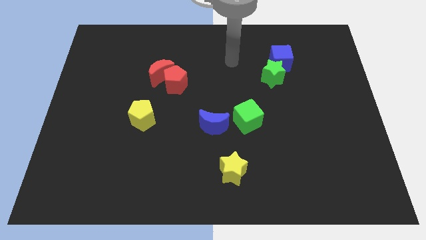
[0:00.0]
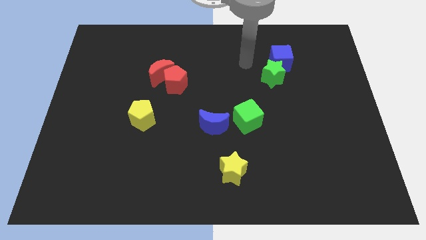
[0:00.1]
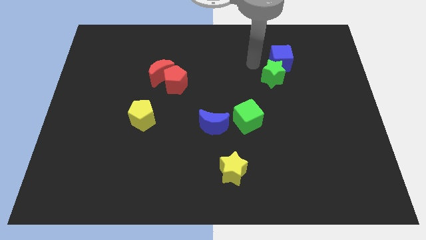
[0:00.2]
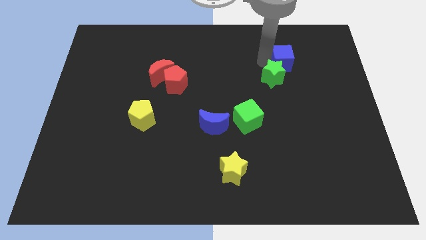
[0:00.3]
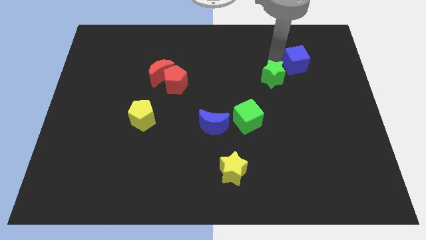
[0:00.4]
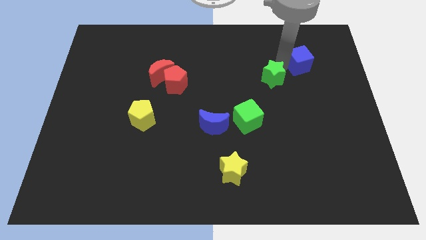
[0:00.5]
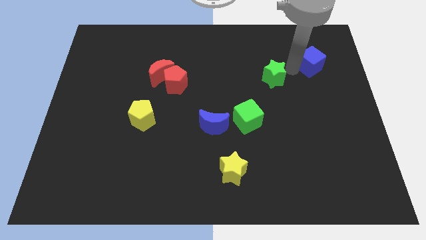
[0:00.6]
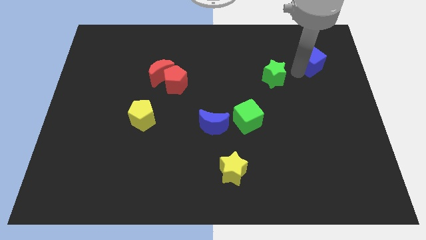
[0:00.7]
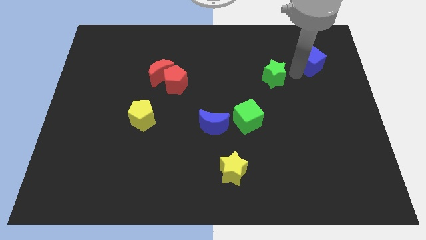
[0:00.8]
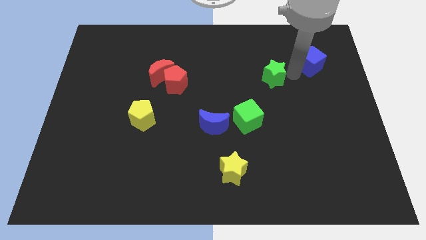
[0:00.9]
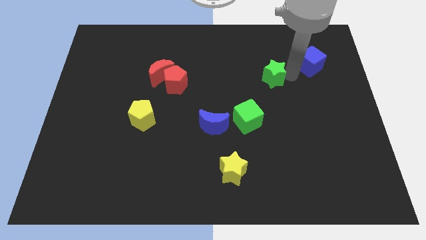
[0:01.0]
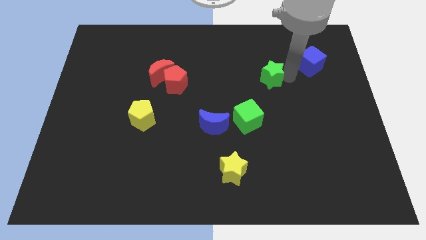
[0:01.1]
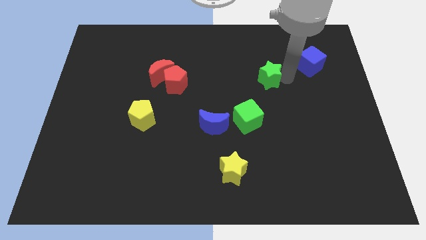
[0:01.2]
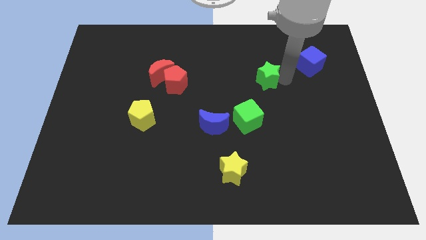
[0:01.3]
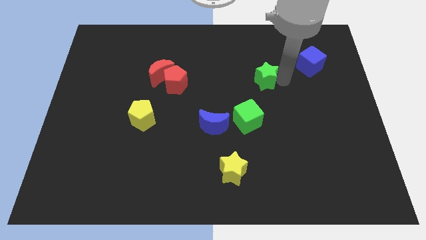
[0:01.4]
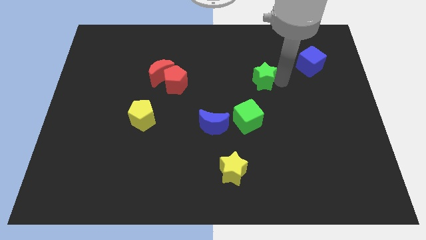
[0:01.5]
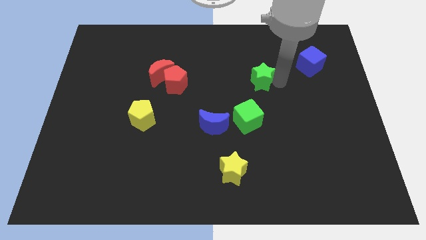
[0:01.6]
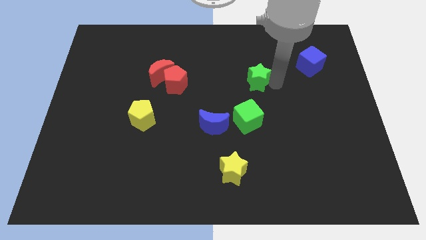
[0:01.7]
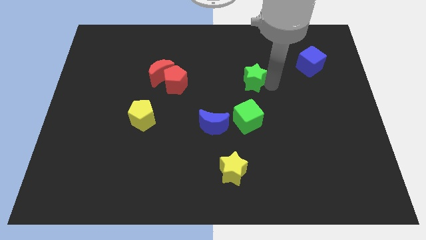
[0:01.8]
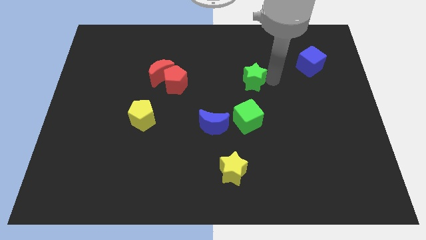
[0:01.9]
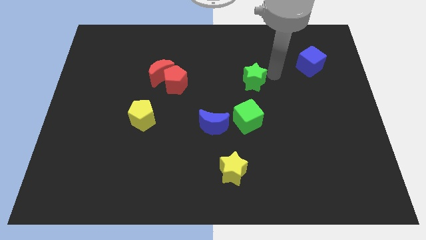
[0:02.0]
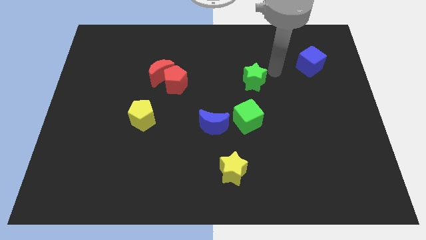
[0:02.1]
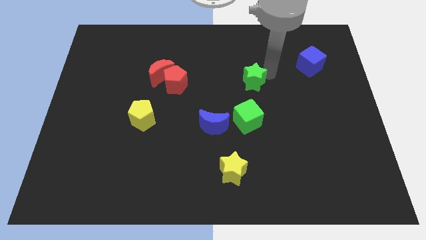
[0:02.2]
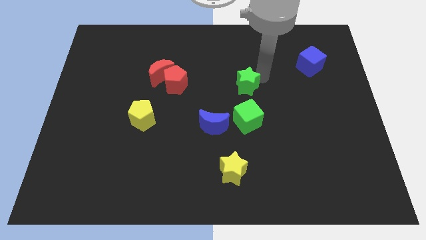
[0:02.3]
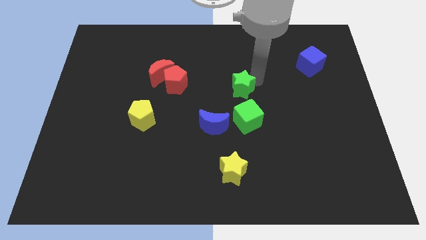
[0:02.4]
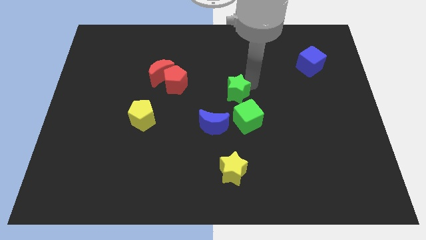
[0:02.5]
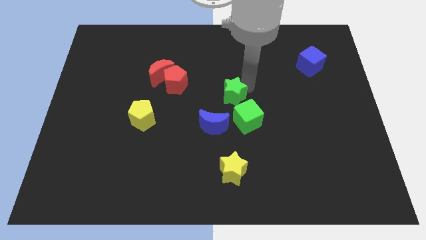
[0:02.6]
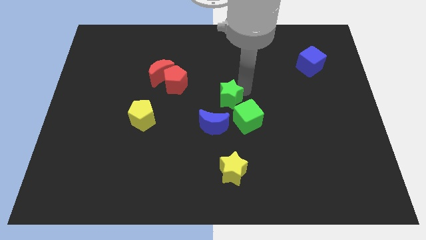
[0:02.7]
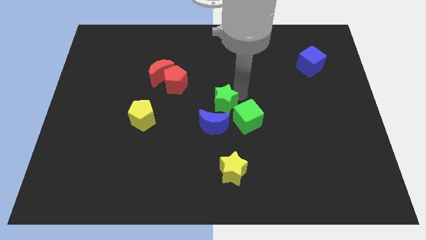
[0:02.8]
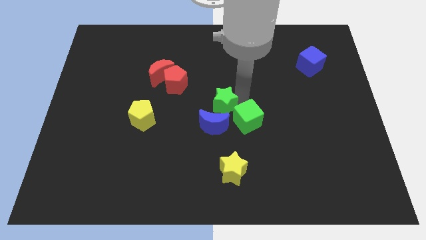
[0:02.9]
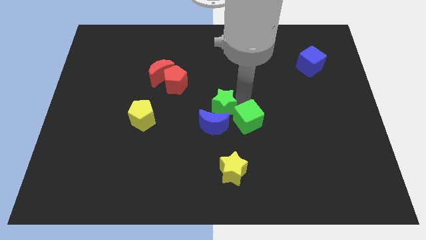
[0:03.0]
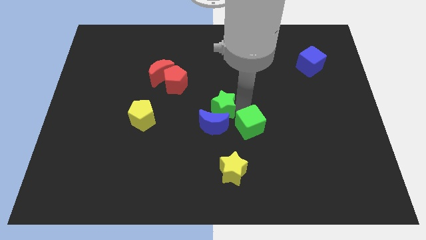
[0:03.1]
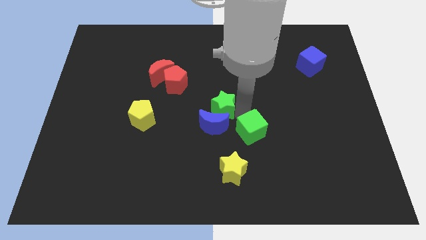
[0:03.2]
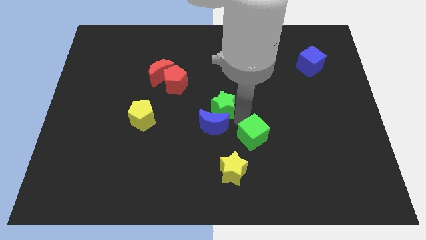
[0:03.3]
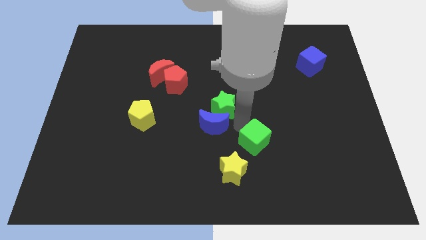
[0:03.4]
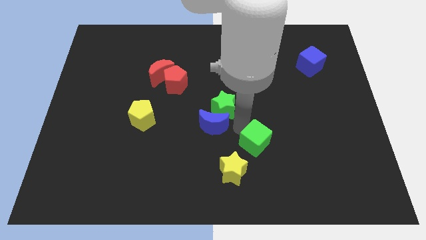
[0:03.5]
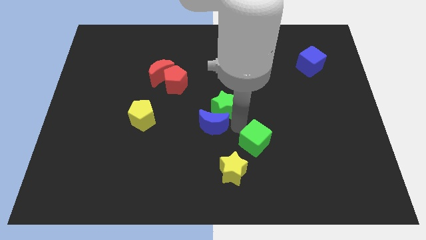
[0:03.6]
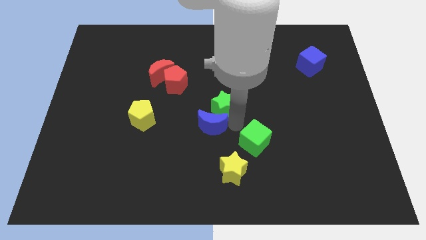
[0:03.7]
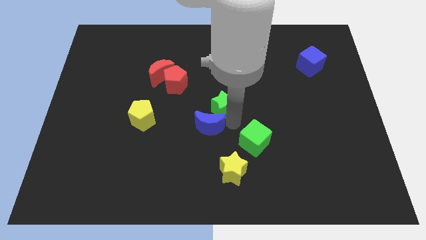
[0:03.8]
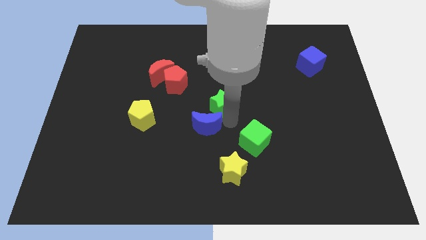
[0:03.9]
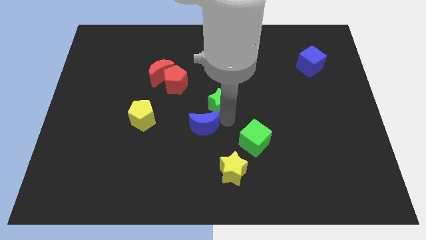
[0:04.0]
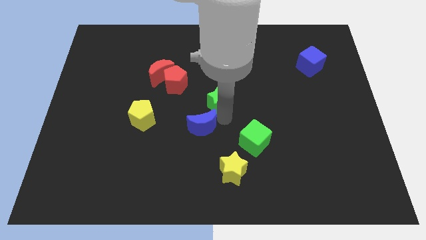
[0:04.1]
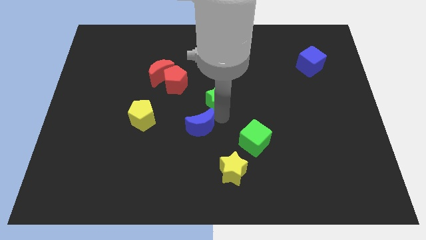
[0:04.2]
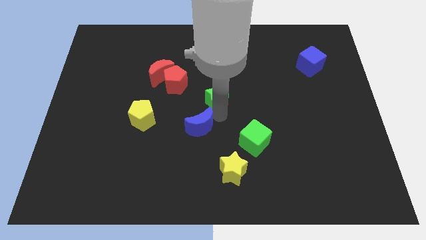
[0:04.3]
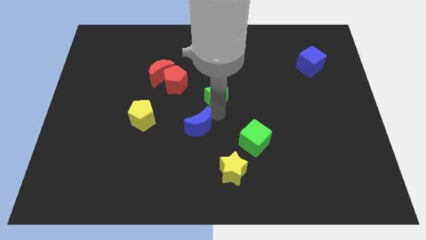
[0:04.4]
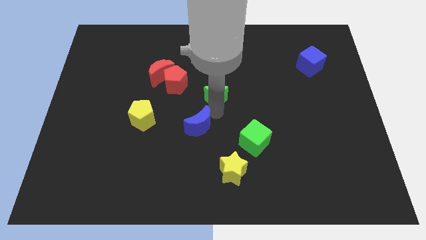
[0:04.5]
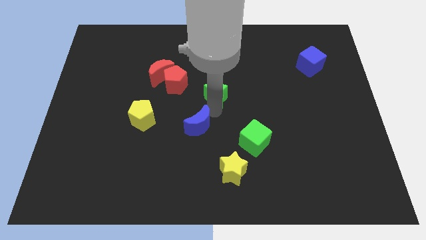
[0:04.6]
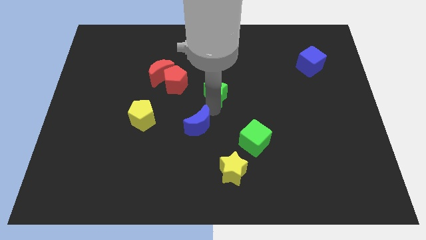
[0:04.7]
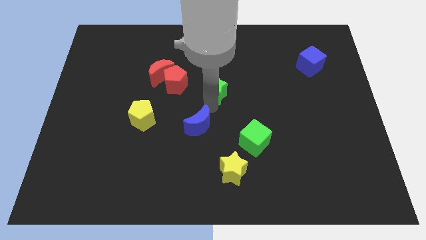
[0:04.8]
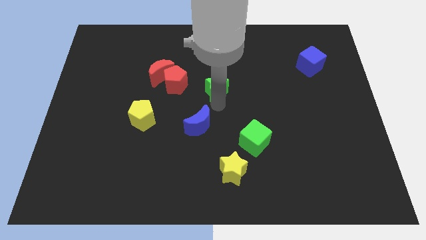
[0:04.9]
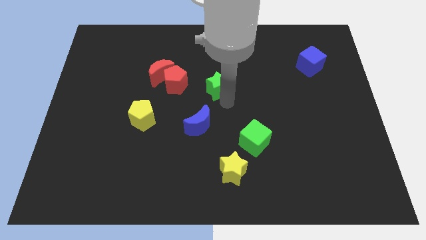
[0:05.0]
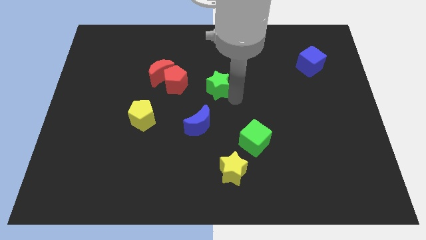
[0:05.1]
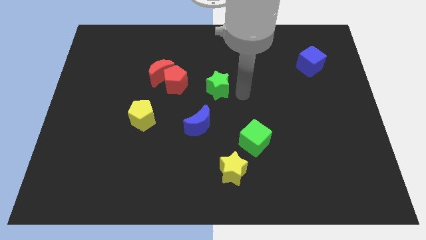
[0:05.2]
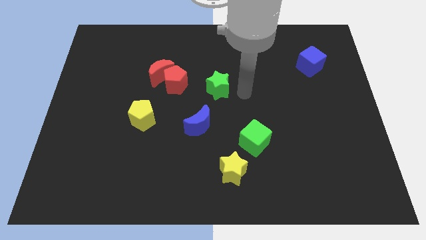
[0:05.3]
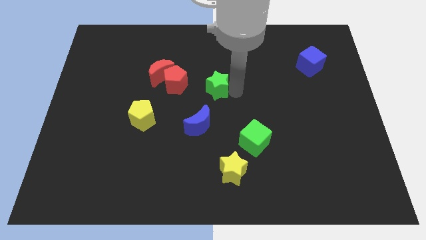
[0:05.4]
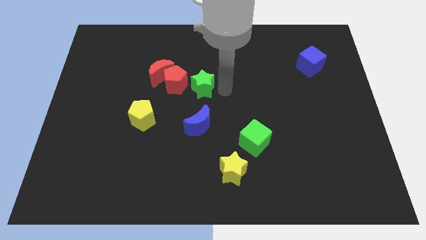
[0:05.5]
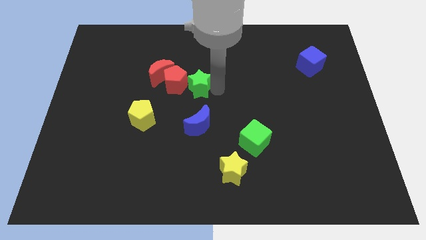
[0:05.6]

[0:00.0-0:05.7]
push the green star towards the red pentagon

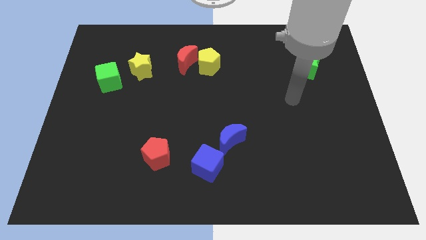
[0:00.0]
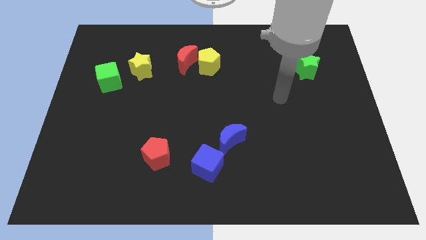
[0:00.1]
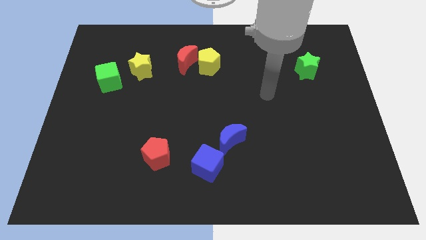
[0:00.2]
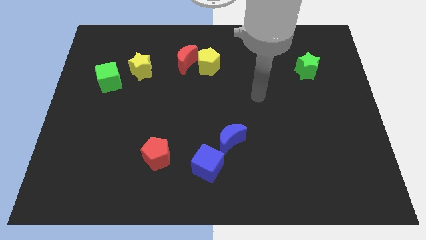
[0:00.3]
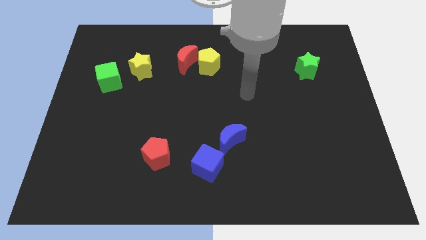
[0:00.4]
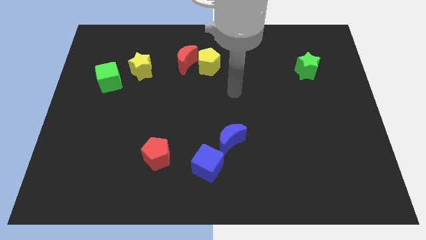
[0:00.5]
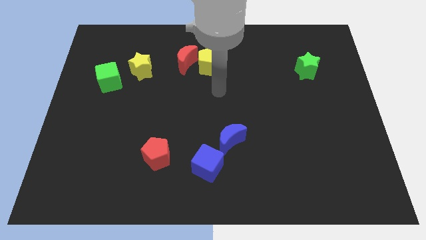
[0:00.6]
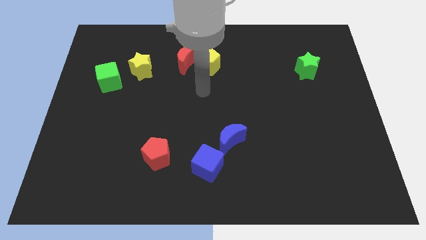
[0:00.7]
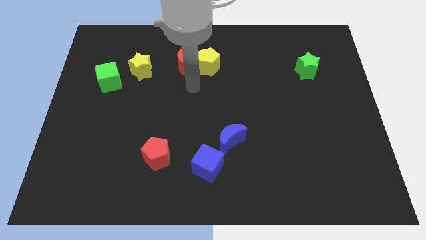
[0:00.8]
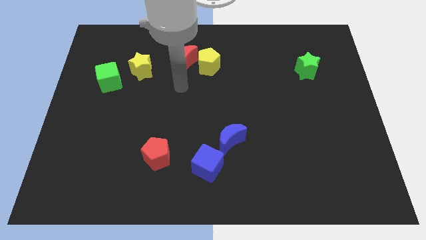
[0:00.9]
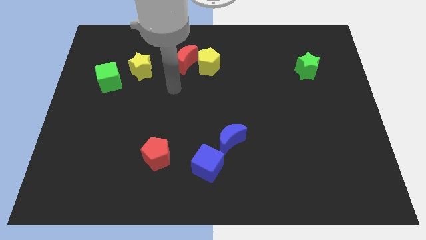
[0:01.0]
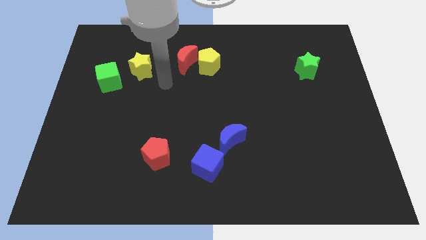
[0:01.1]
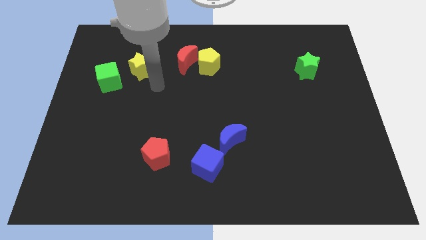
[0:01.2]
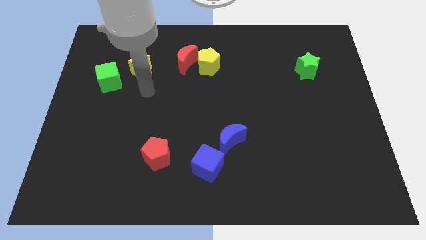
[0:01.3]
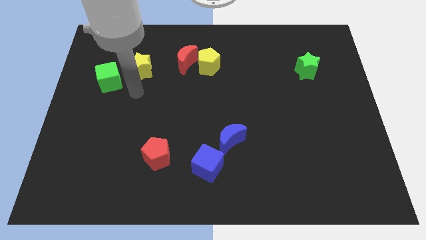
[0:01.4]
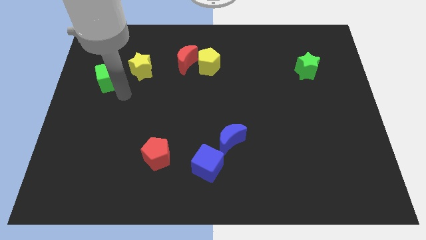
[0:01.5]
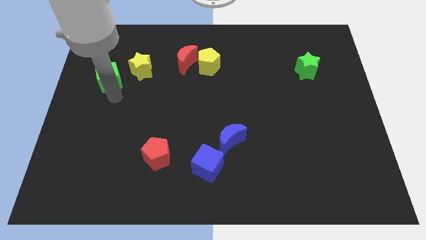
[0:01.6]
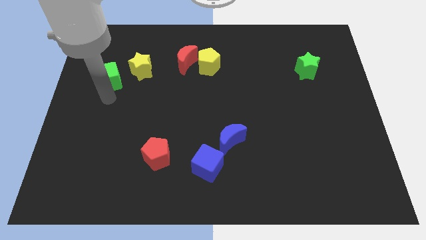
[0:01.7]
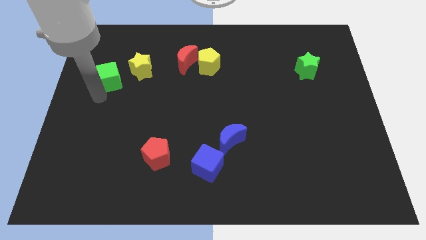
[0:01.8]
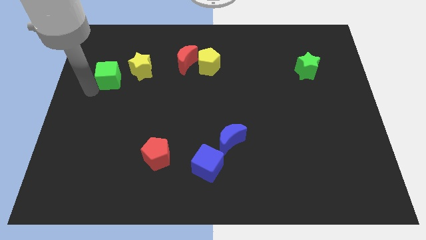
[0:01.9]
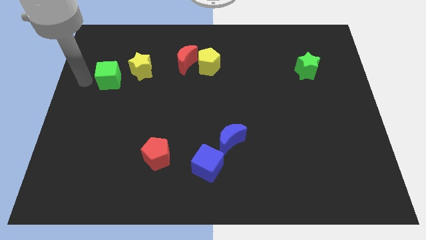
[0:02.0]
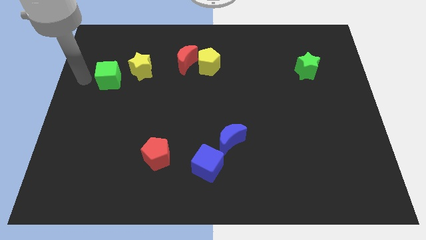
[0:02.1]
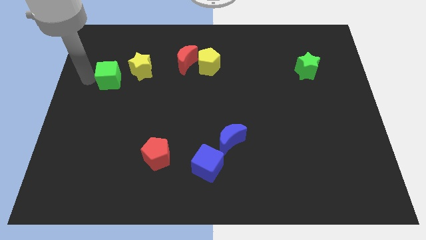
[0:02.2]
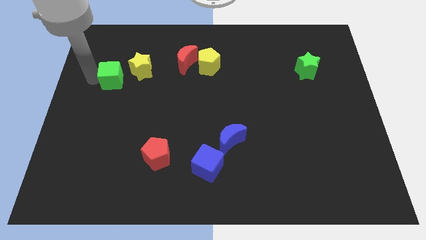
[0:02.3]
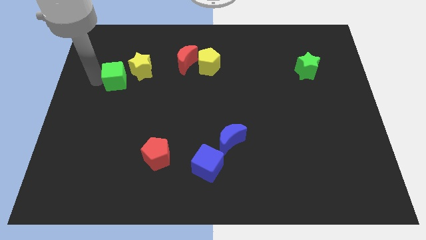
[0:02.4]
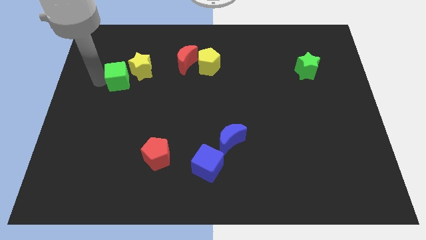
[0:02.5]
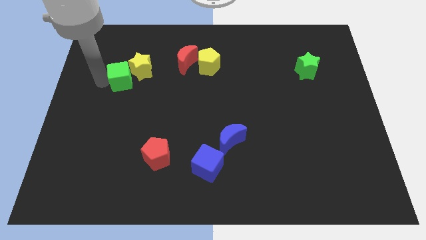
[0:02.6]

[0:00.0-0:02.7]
slide the green cube to the yellow star
